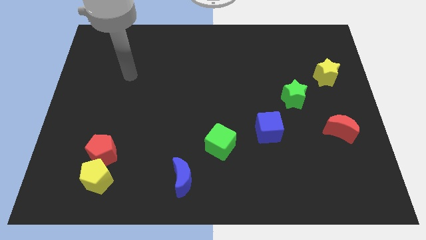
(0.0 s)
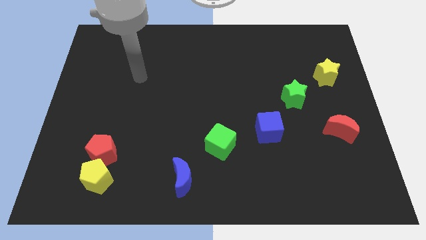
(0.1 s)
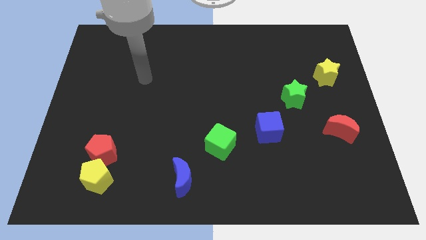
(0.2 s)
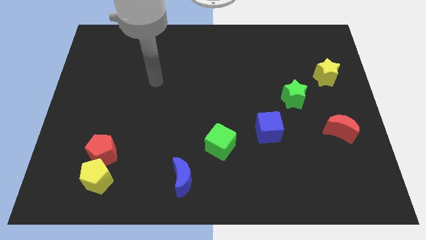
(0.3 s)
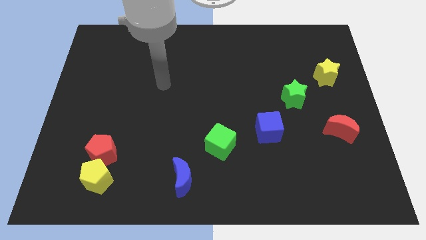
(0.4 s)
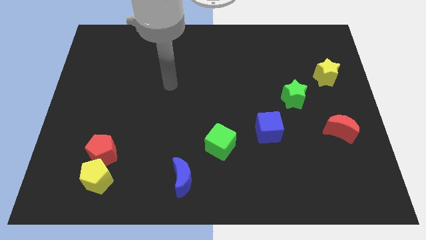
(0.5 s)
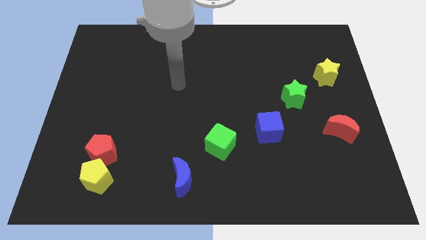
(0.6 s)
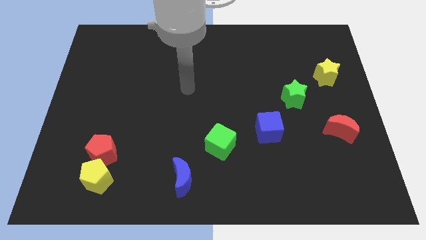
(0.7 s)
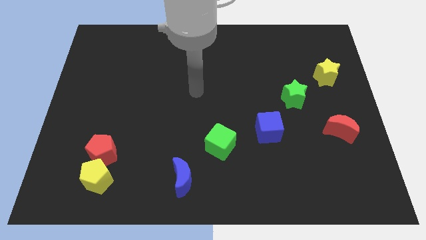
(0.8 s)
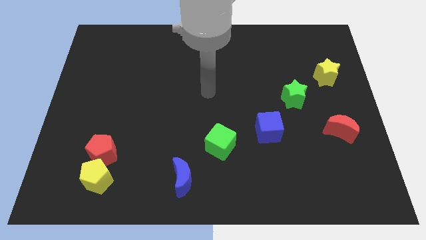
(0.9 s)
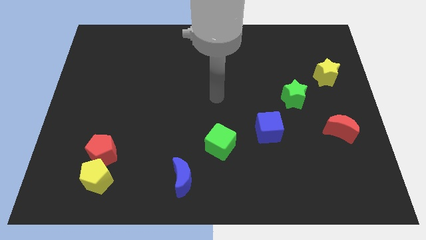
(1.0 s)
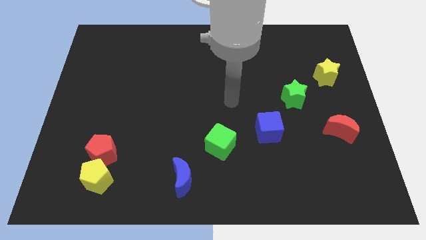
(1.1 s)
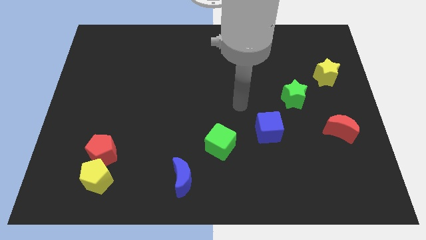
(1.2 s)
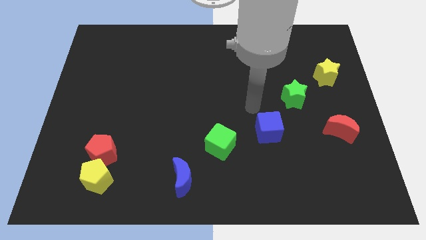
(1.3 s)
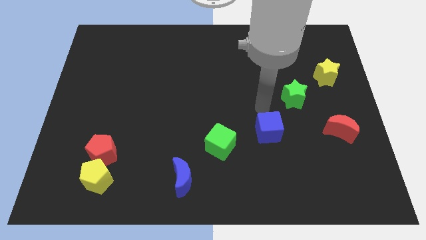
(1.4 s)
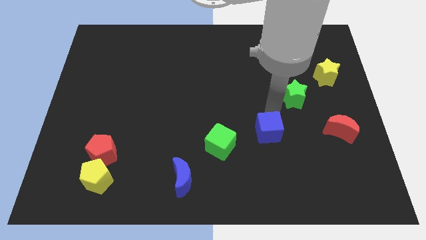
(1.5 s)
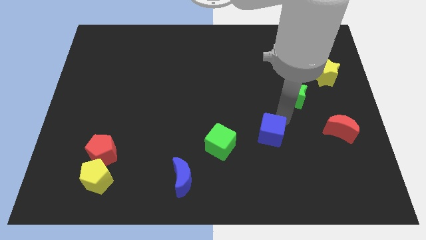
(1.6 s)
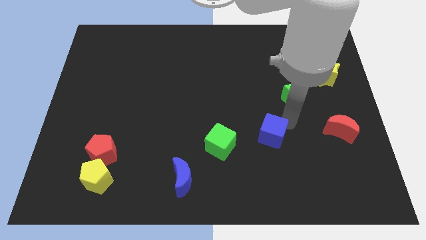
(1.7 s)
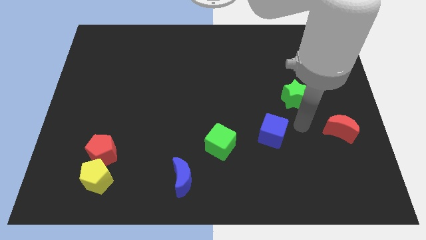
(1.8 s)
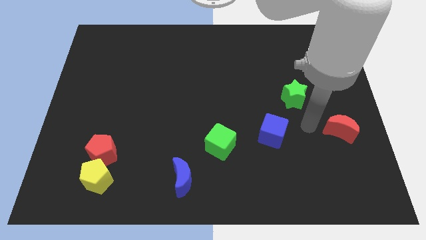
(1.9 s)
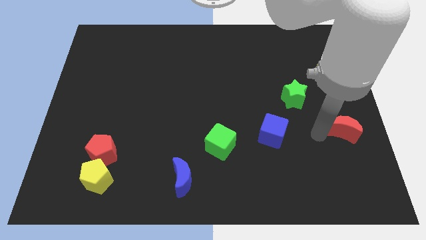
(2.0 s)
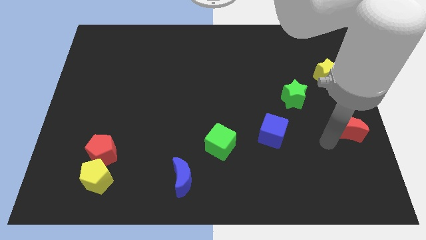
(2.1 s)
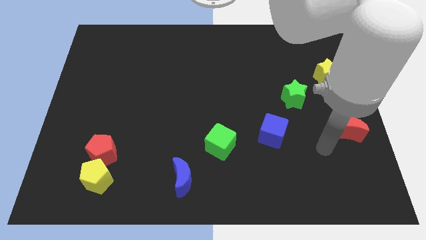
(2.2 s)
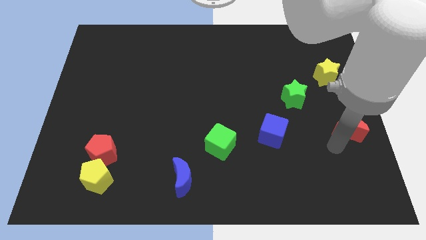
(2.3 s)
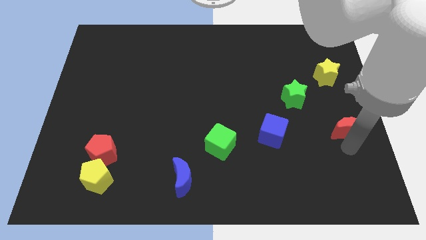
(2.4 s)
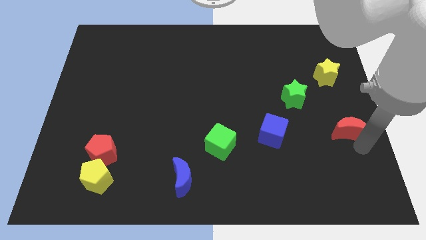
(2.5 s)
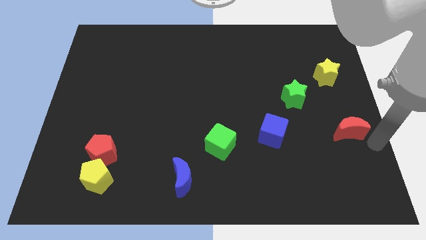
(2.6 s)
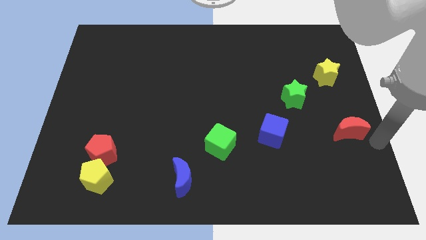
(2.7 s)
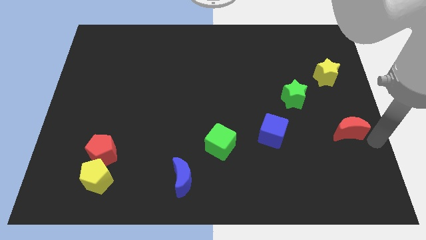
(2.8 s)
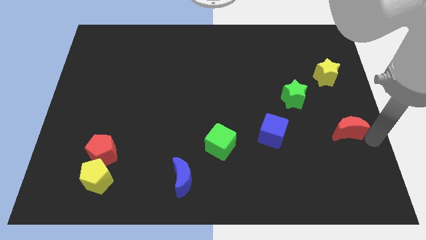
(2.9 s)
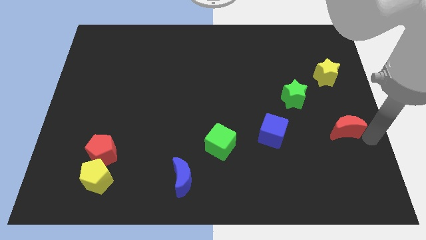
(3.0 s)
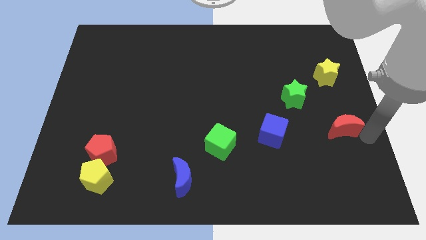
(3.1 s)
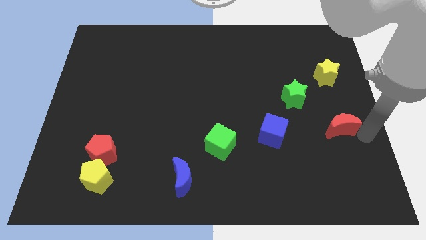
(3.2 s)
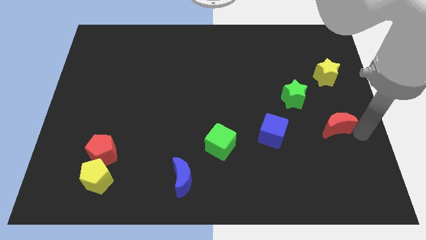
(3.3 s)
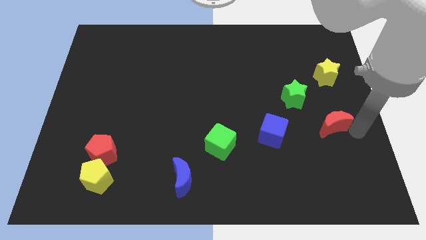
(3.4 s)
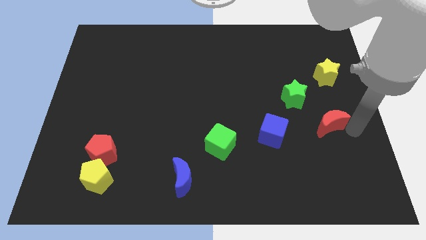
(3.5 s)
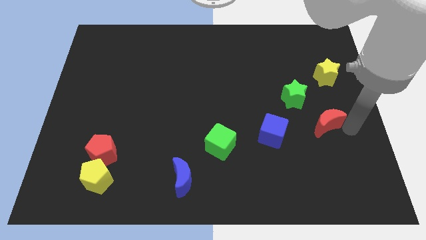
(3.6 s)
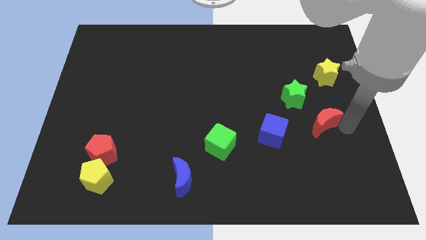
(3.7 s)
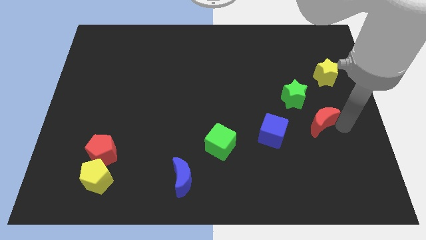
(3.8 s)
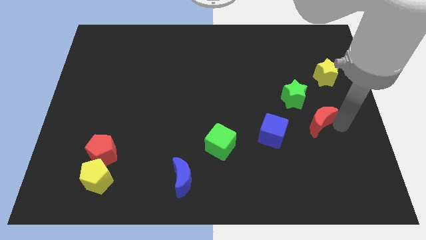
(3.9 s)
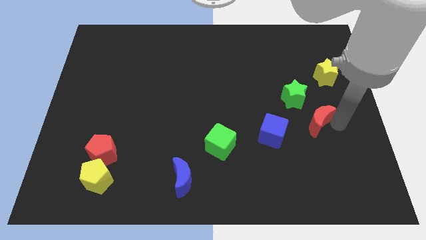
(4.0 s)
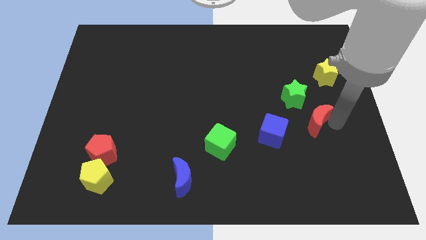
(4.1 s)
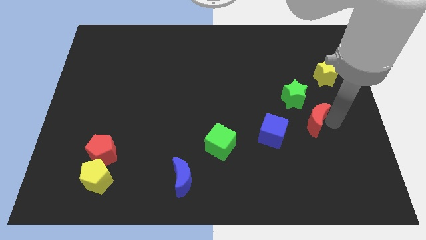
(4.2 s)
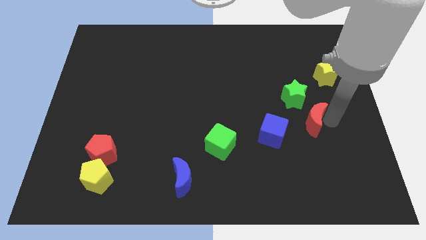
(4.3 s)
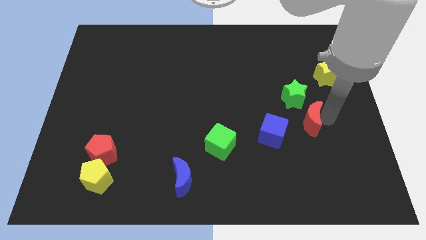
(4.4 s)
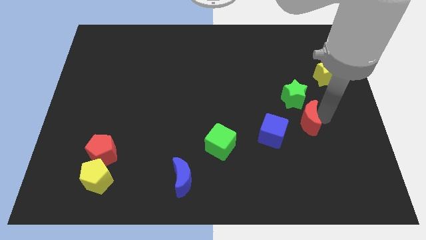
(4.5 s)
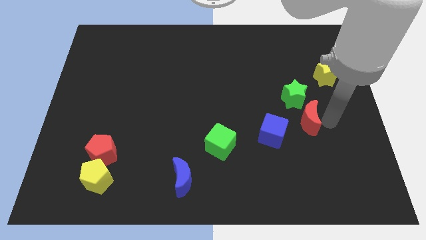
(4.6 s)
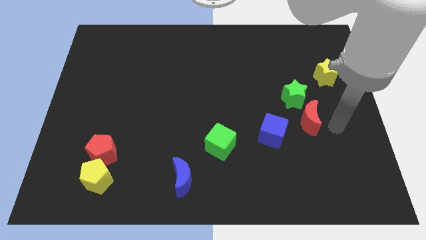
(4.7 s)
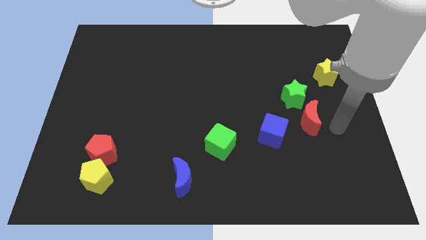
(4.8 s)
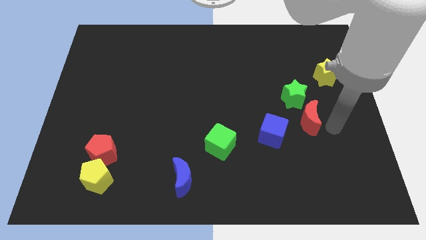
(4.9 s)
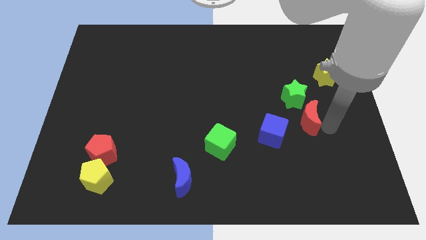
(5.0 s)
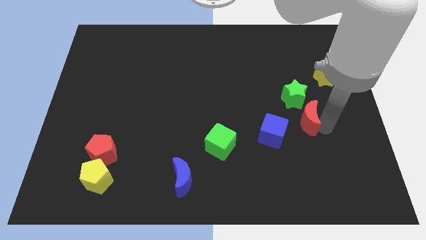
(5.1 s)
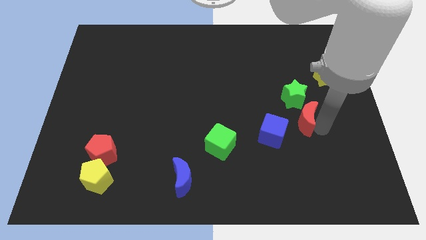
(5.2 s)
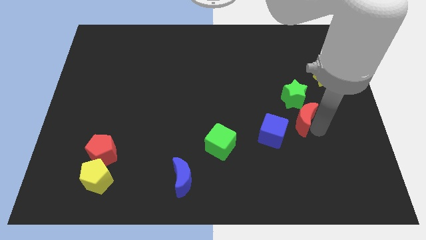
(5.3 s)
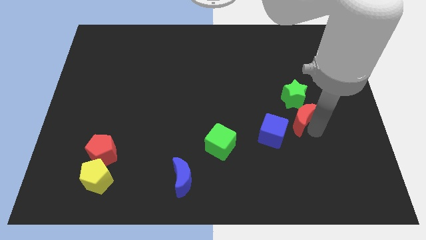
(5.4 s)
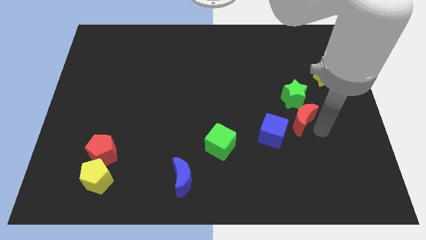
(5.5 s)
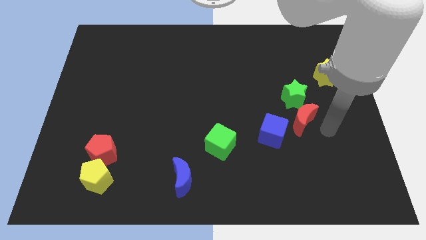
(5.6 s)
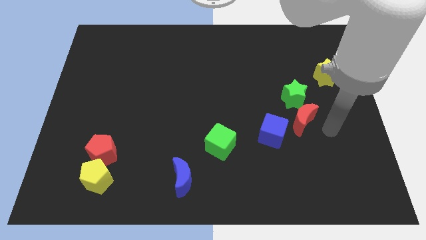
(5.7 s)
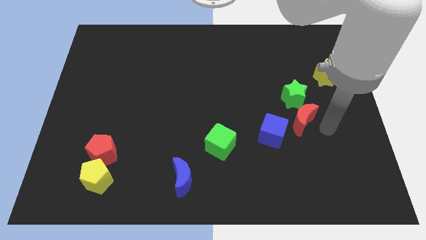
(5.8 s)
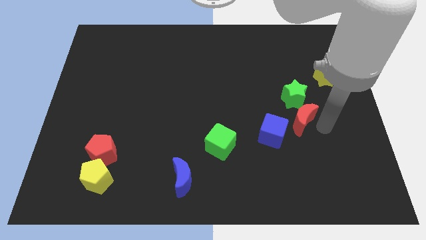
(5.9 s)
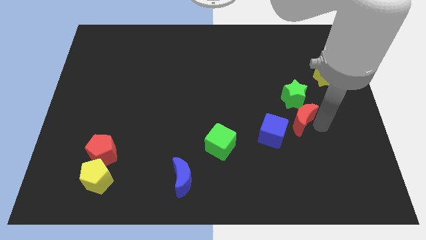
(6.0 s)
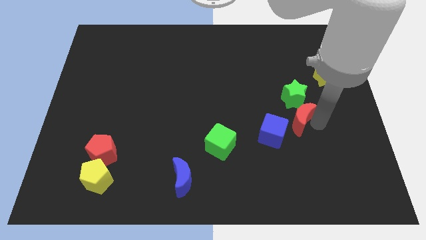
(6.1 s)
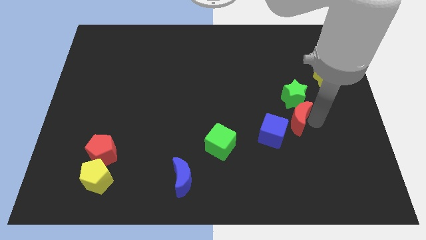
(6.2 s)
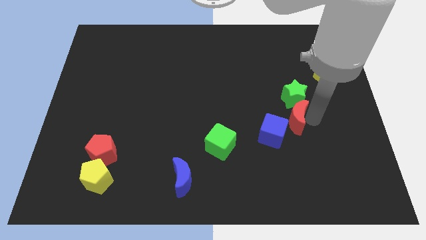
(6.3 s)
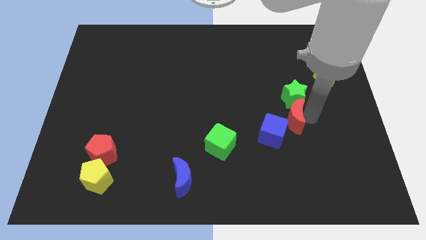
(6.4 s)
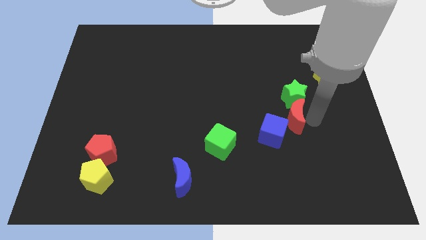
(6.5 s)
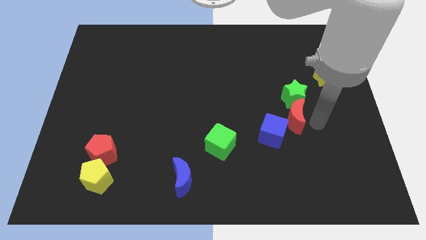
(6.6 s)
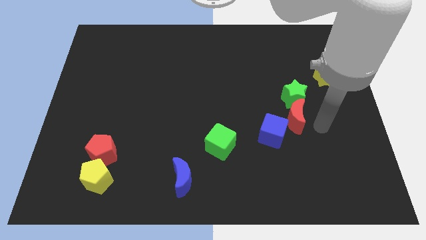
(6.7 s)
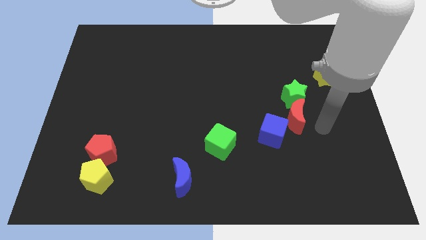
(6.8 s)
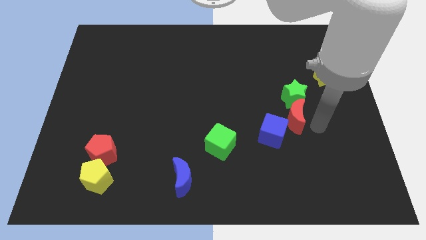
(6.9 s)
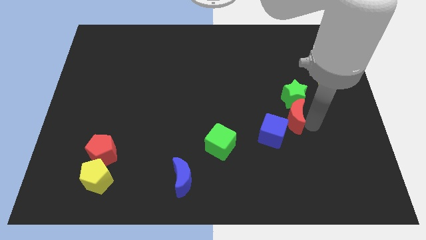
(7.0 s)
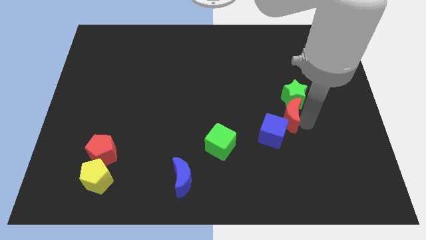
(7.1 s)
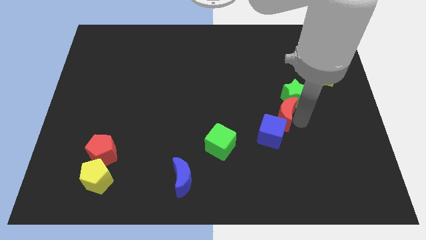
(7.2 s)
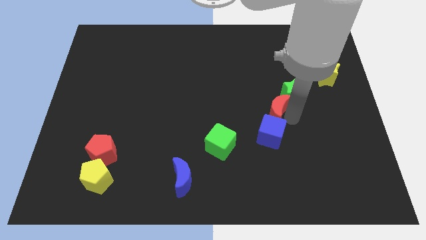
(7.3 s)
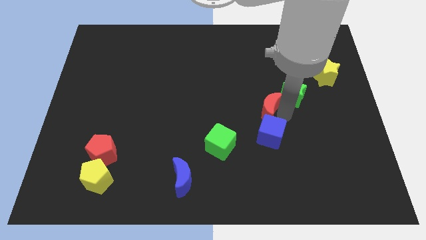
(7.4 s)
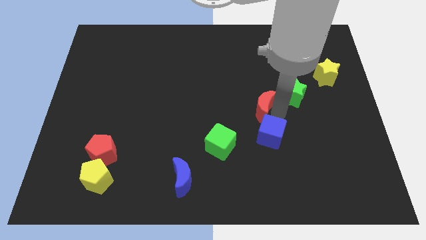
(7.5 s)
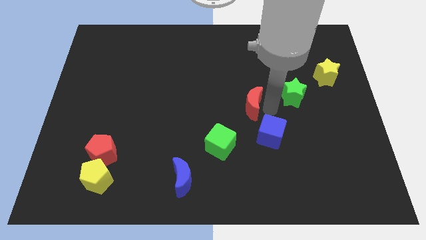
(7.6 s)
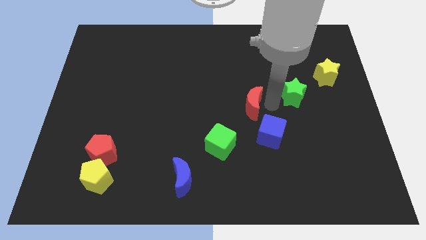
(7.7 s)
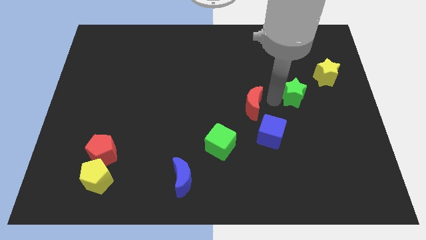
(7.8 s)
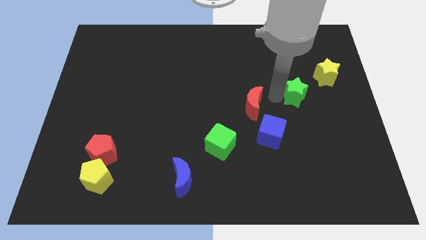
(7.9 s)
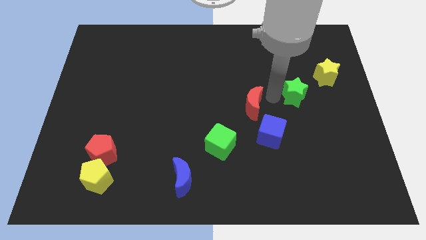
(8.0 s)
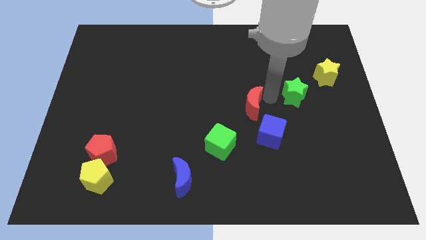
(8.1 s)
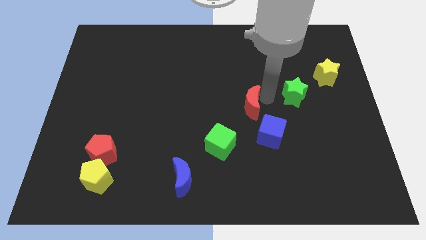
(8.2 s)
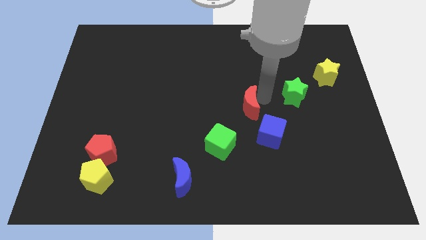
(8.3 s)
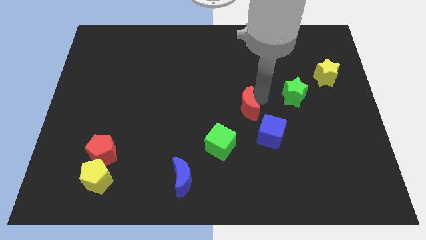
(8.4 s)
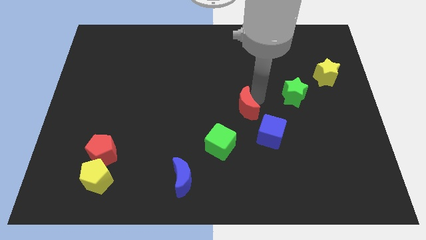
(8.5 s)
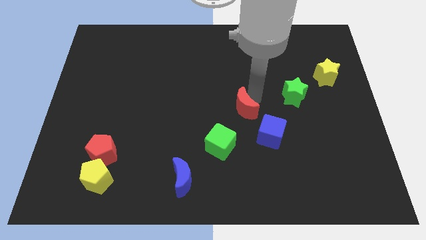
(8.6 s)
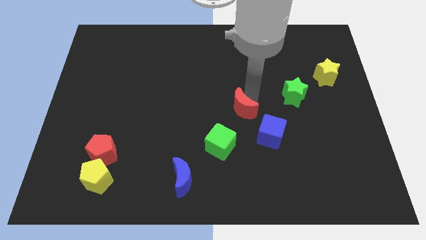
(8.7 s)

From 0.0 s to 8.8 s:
slide the red moon left
